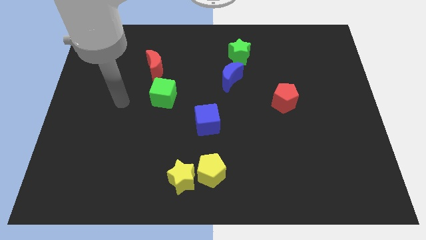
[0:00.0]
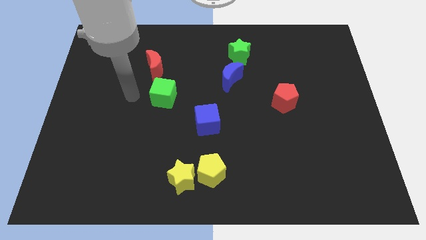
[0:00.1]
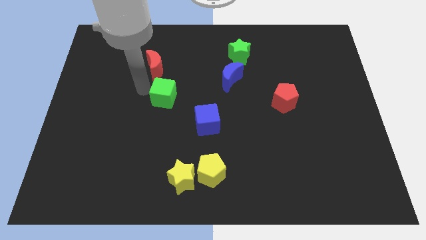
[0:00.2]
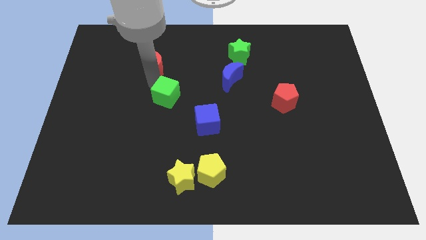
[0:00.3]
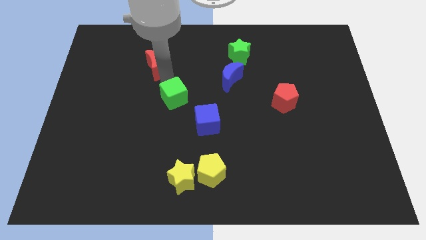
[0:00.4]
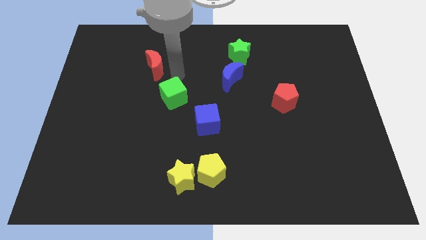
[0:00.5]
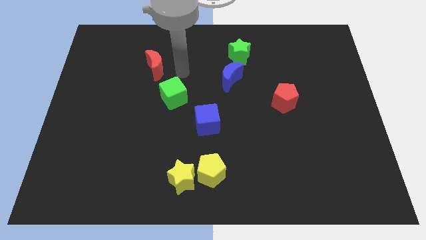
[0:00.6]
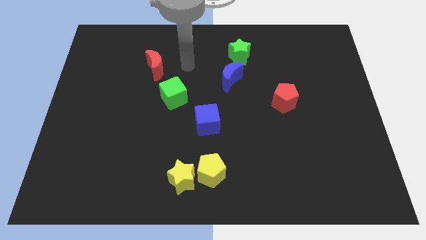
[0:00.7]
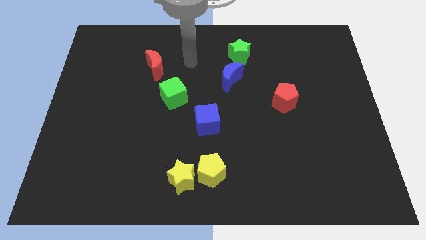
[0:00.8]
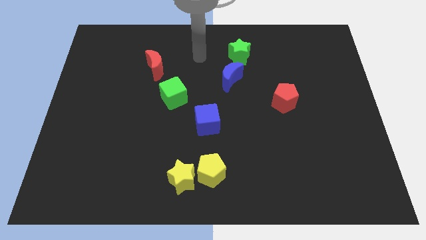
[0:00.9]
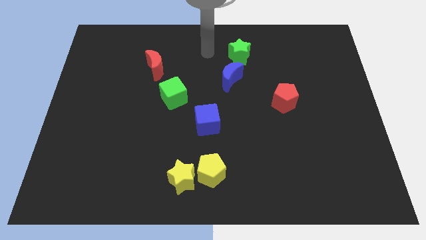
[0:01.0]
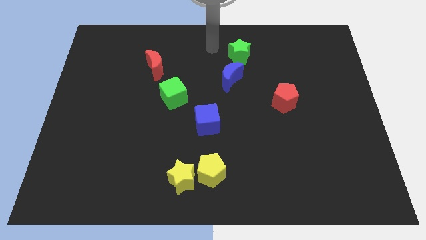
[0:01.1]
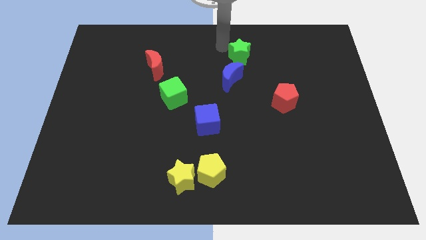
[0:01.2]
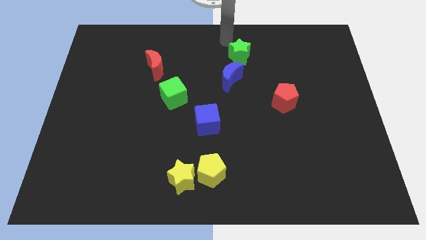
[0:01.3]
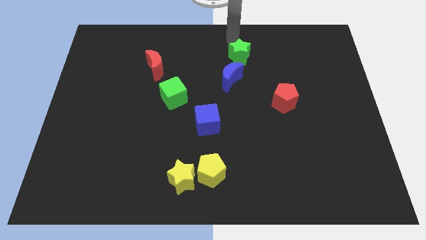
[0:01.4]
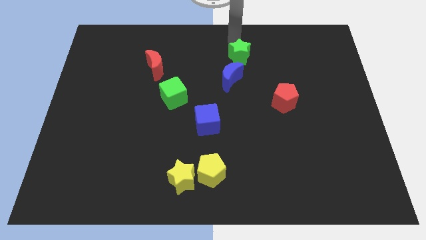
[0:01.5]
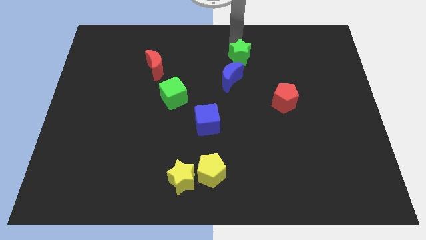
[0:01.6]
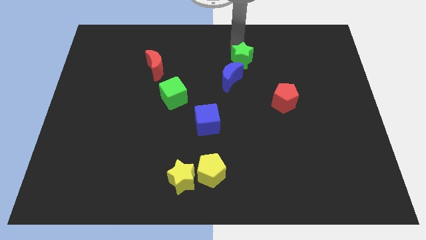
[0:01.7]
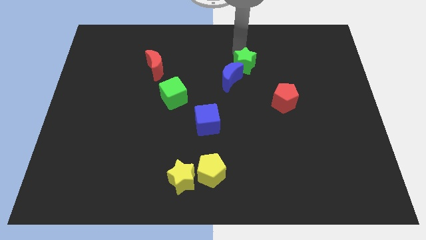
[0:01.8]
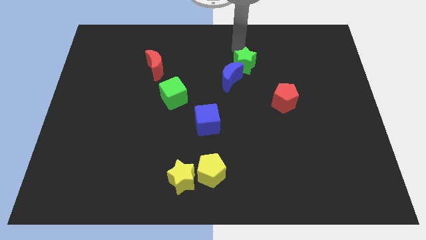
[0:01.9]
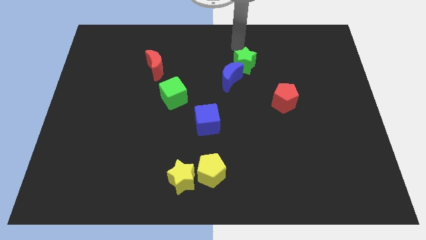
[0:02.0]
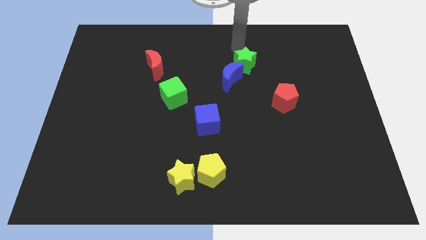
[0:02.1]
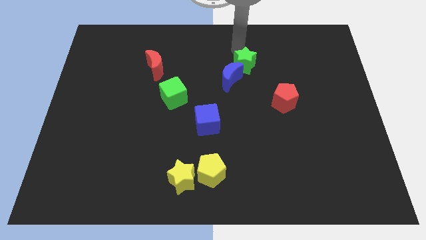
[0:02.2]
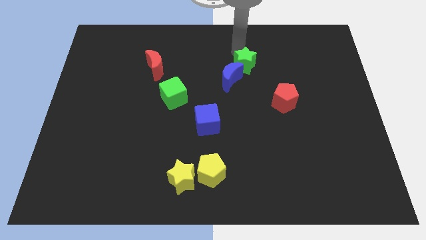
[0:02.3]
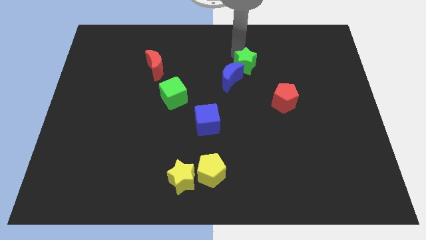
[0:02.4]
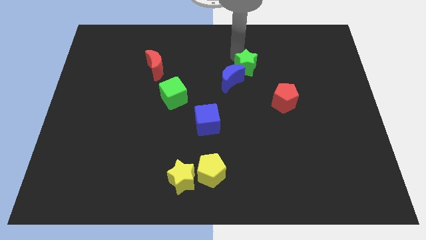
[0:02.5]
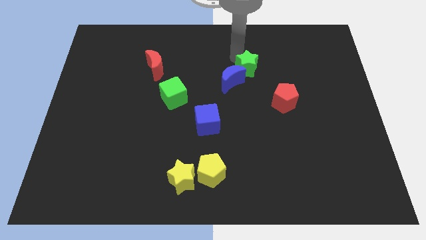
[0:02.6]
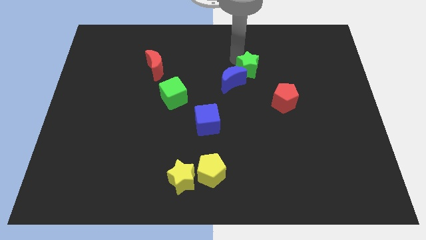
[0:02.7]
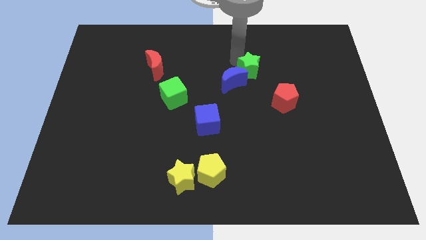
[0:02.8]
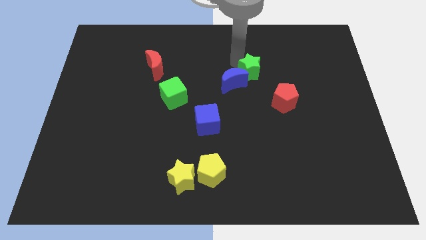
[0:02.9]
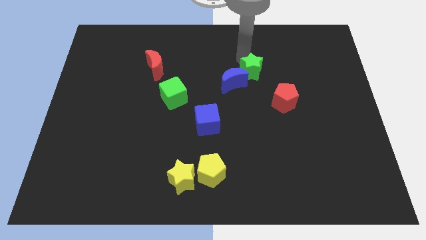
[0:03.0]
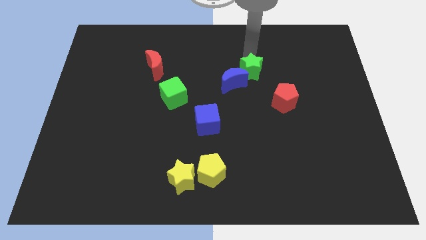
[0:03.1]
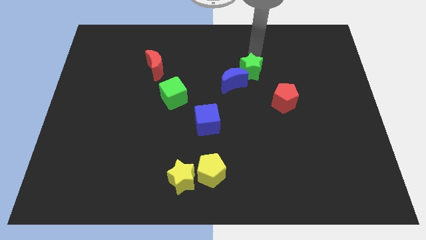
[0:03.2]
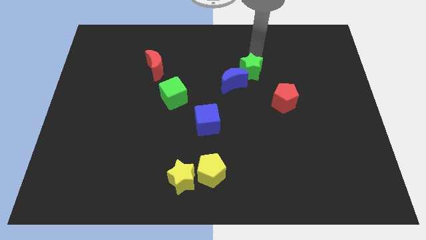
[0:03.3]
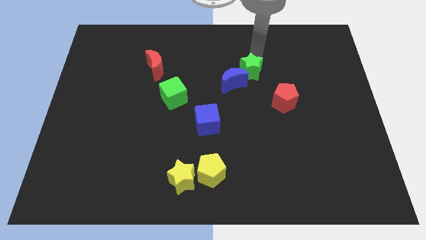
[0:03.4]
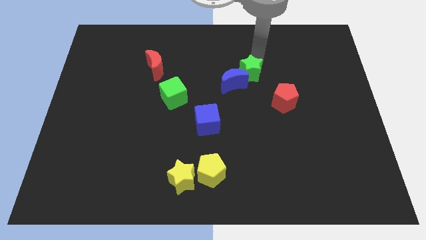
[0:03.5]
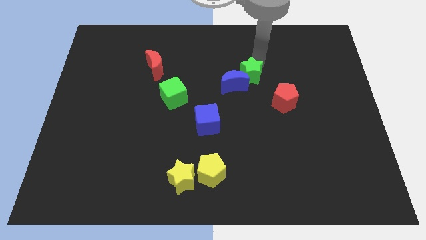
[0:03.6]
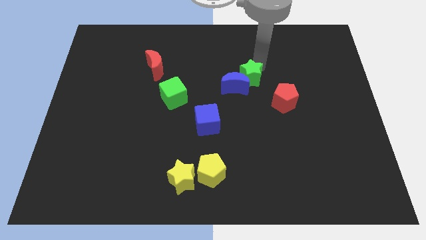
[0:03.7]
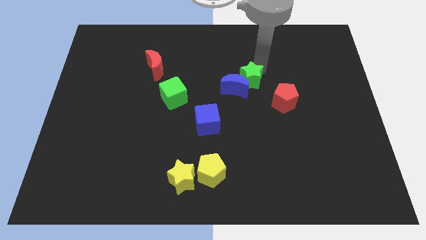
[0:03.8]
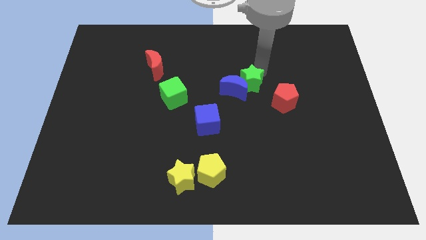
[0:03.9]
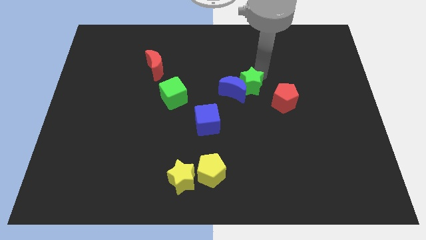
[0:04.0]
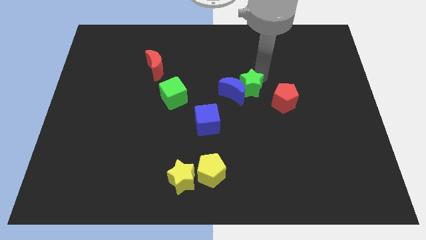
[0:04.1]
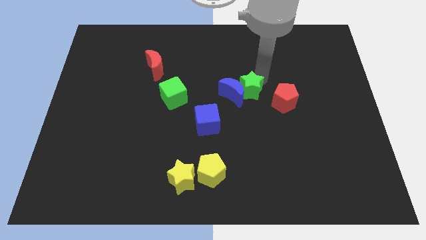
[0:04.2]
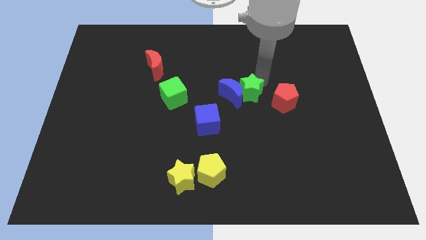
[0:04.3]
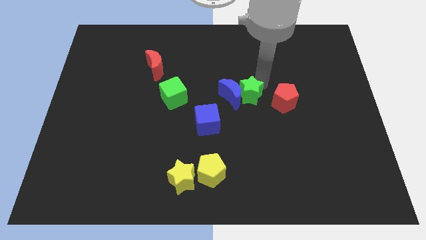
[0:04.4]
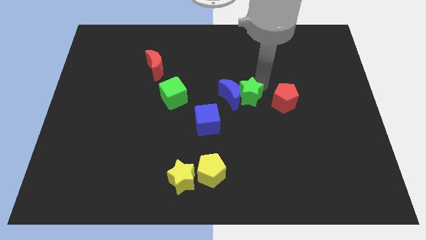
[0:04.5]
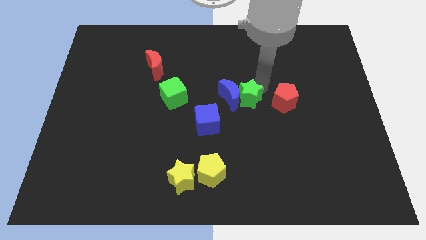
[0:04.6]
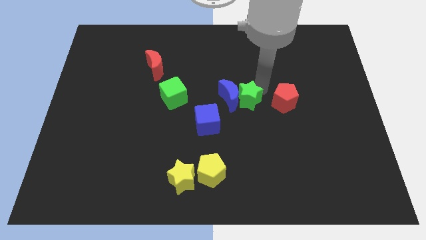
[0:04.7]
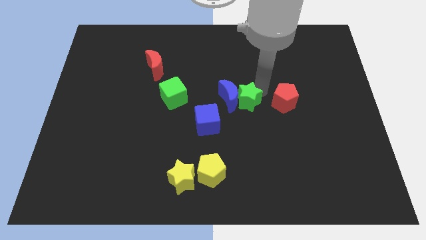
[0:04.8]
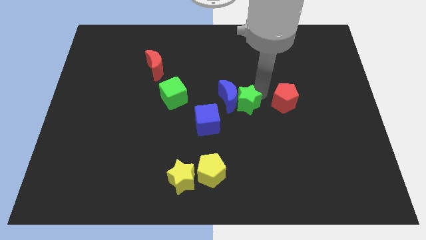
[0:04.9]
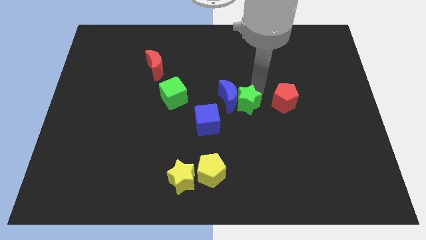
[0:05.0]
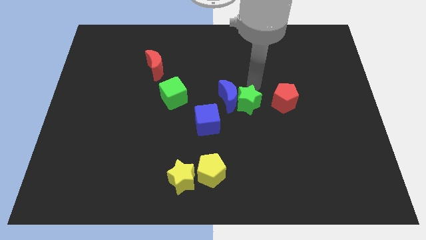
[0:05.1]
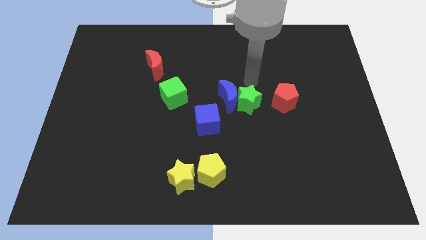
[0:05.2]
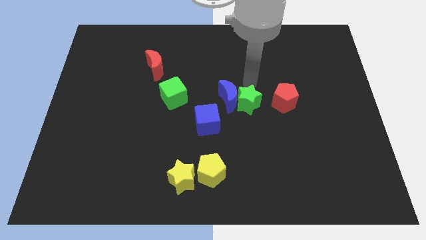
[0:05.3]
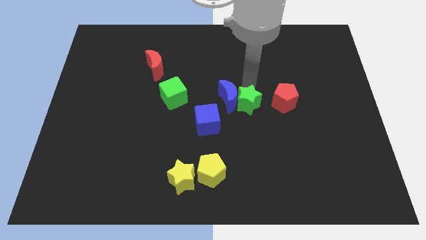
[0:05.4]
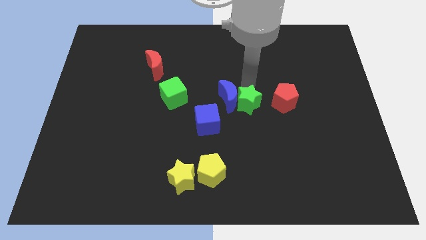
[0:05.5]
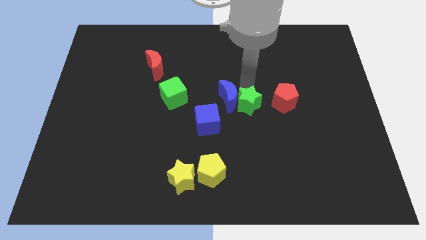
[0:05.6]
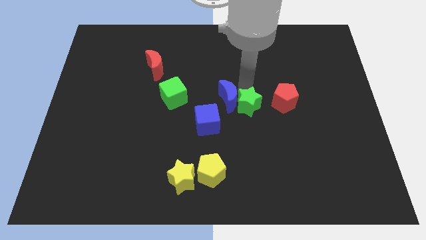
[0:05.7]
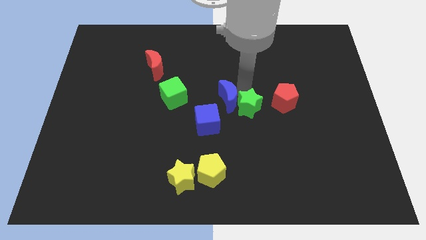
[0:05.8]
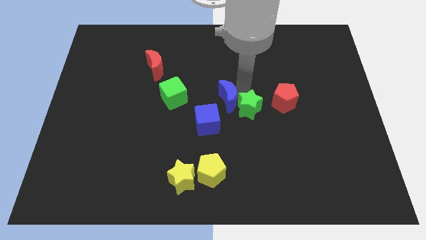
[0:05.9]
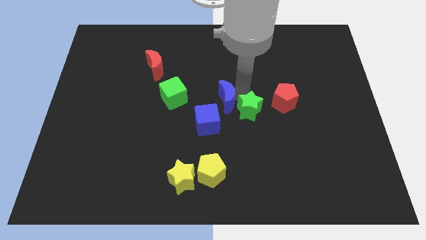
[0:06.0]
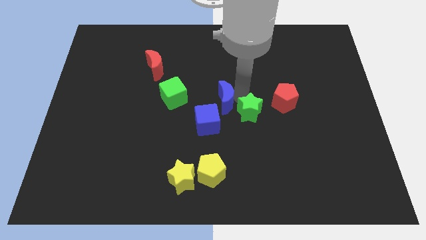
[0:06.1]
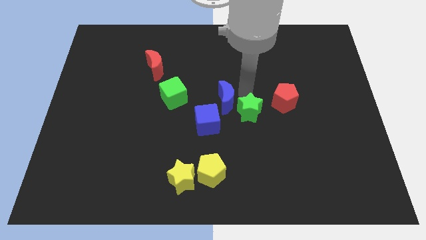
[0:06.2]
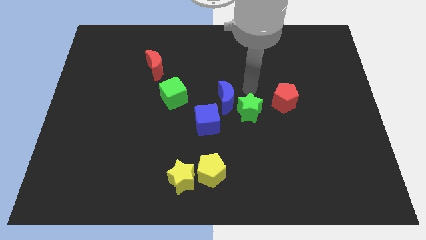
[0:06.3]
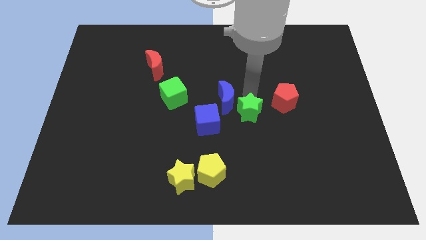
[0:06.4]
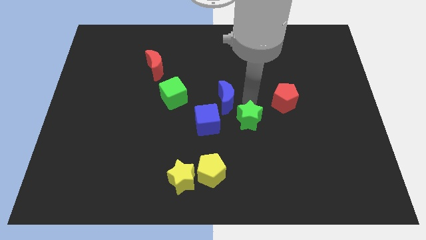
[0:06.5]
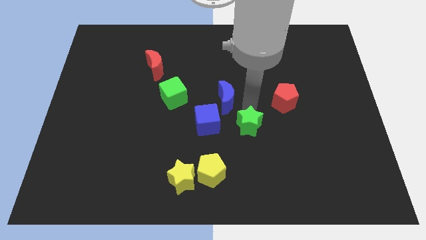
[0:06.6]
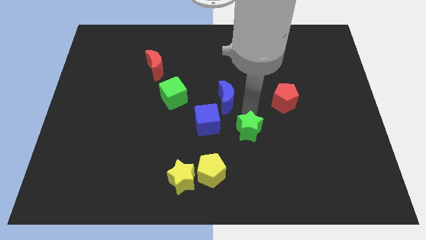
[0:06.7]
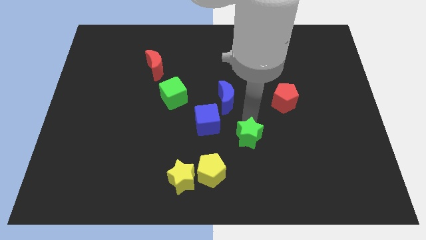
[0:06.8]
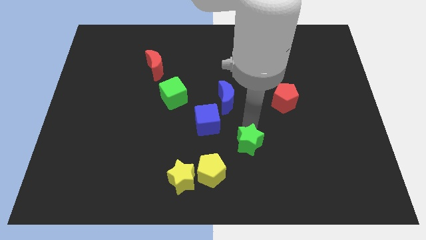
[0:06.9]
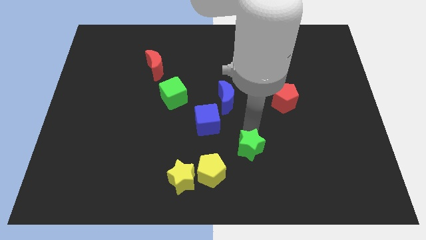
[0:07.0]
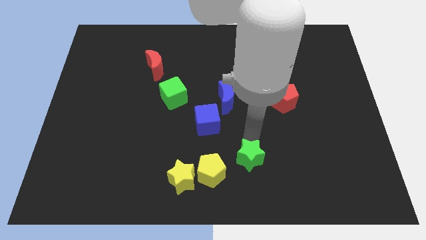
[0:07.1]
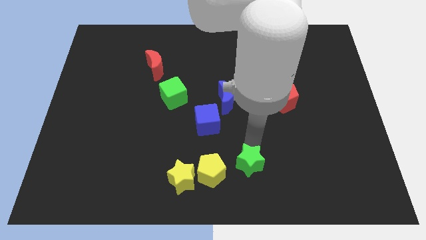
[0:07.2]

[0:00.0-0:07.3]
put the green star to the bottom

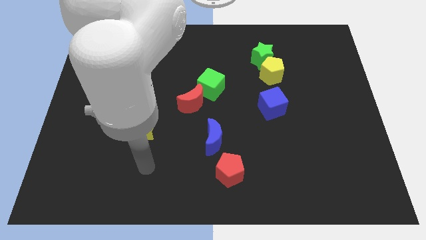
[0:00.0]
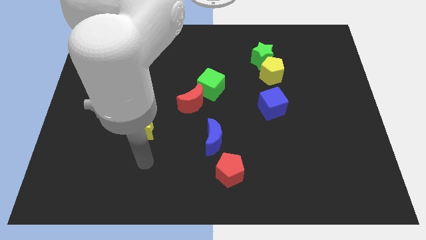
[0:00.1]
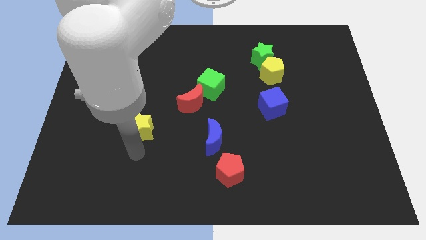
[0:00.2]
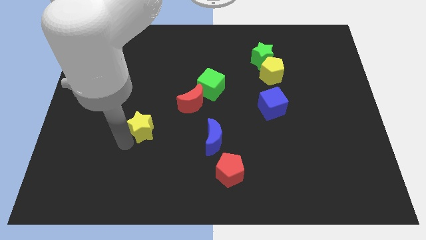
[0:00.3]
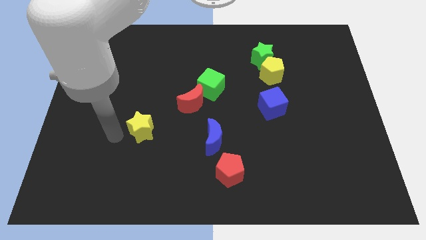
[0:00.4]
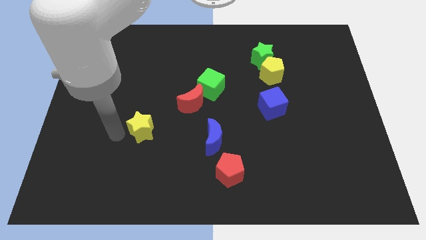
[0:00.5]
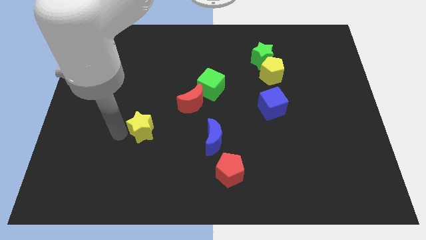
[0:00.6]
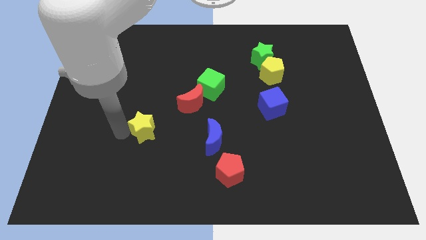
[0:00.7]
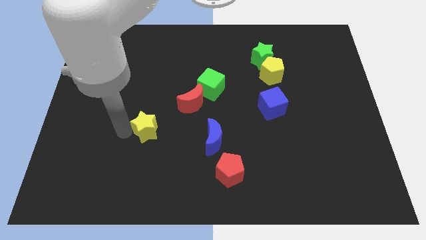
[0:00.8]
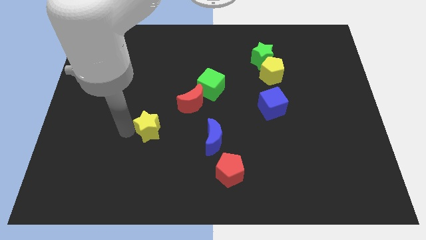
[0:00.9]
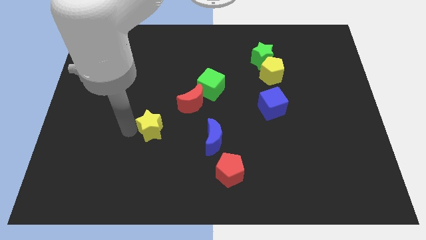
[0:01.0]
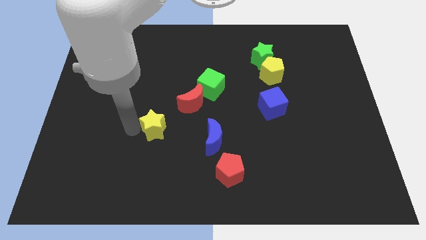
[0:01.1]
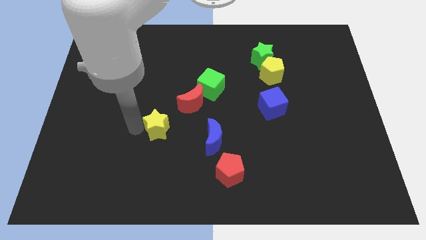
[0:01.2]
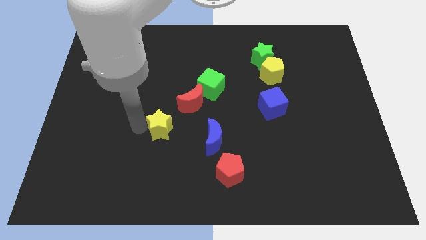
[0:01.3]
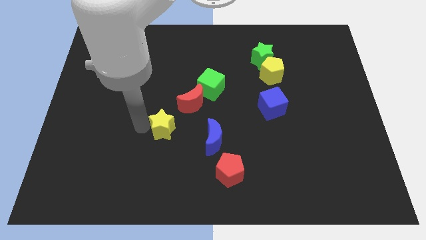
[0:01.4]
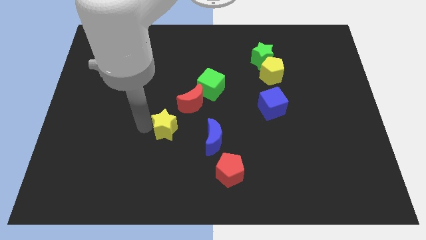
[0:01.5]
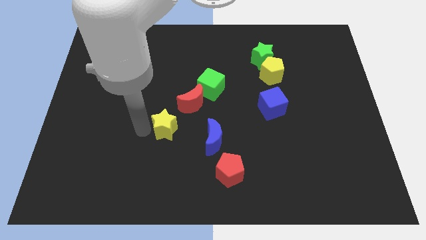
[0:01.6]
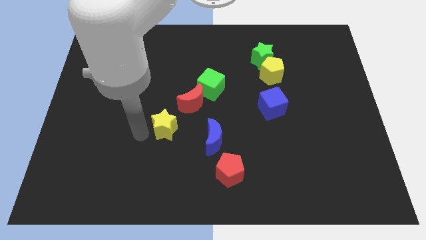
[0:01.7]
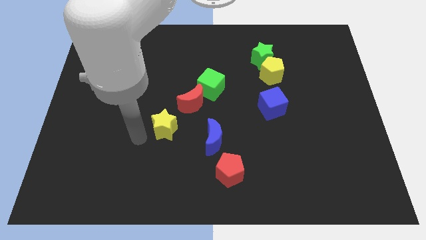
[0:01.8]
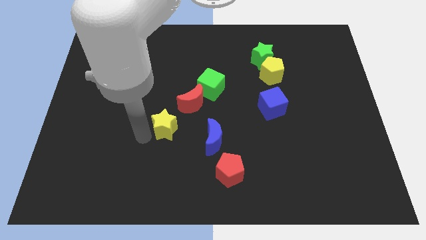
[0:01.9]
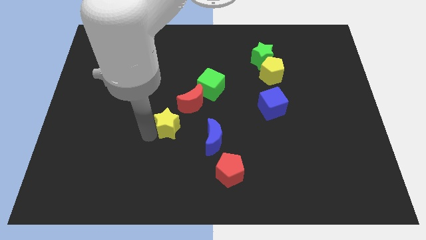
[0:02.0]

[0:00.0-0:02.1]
put the yellow star to the middle of the board
